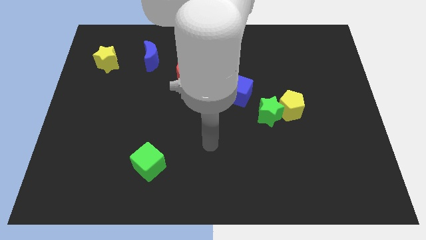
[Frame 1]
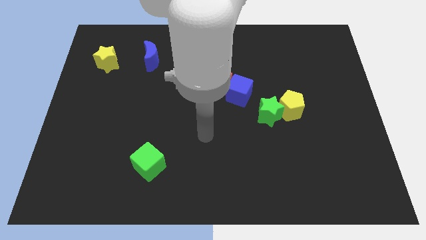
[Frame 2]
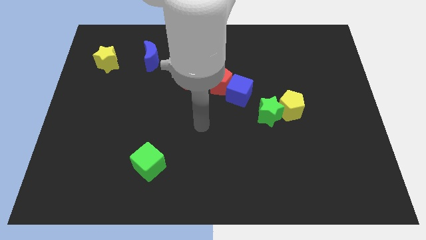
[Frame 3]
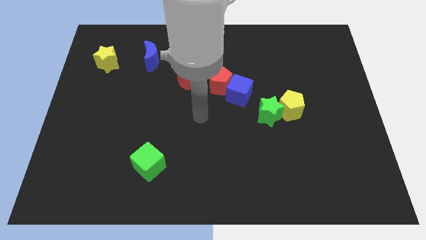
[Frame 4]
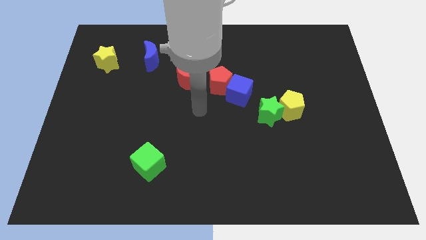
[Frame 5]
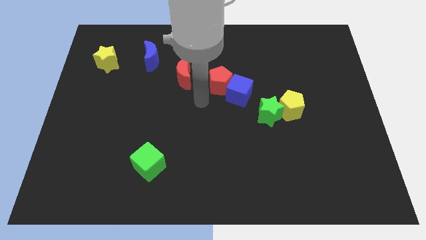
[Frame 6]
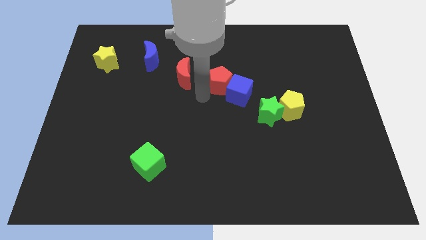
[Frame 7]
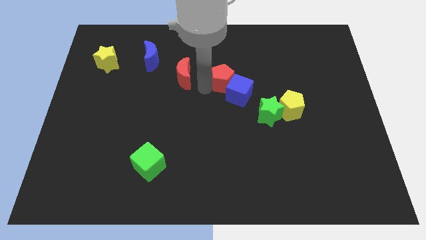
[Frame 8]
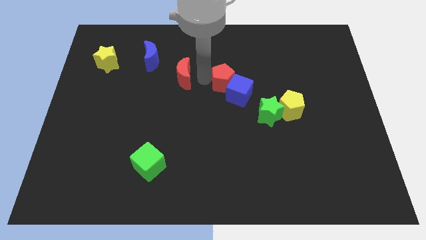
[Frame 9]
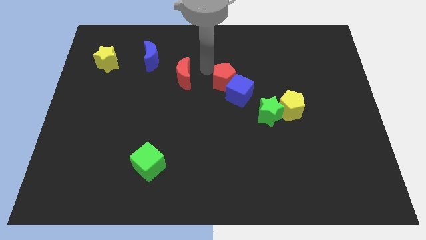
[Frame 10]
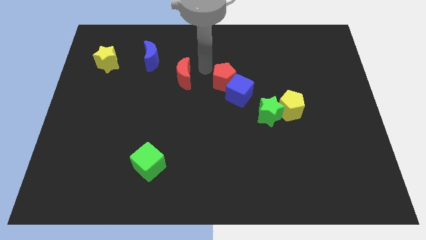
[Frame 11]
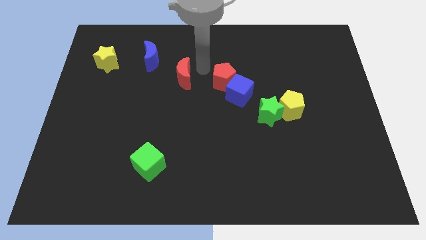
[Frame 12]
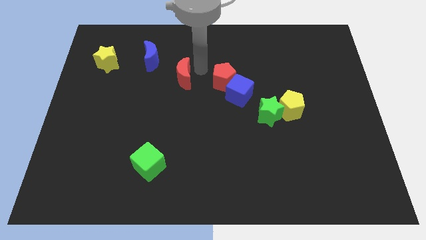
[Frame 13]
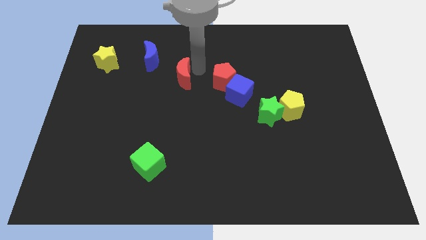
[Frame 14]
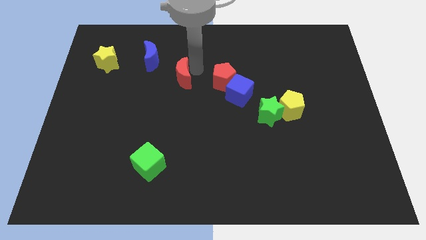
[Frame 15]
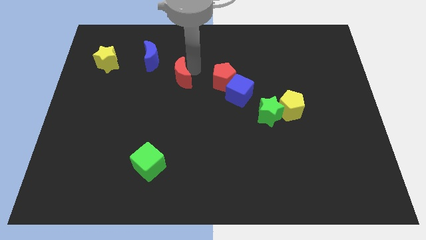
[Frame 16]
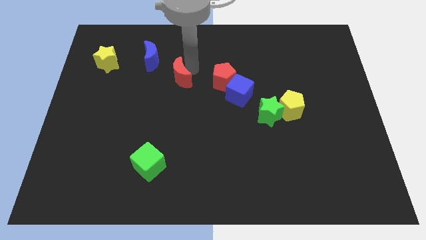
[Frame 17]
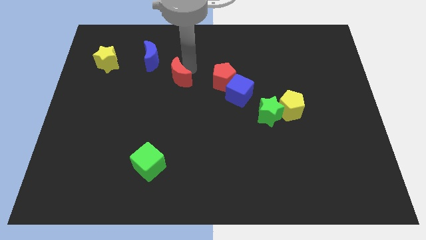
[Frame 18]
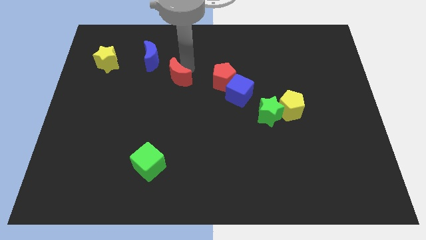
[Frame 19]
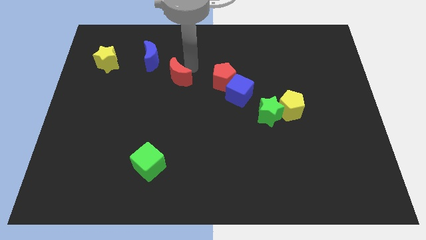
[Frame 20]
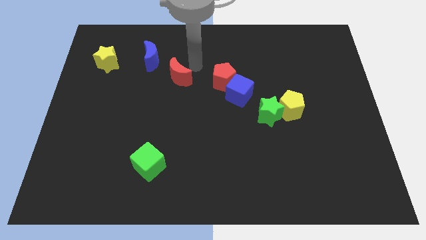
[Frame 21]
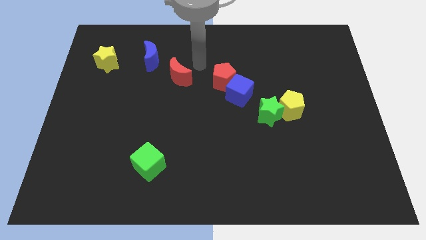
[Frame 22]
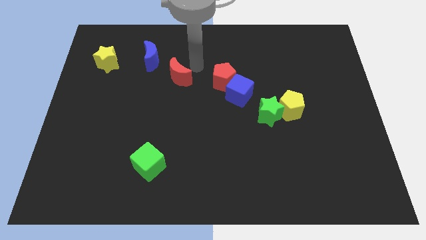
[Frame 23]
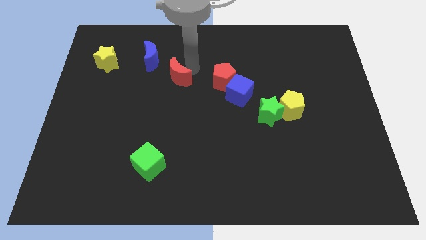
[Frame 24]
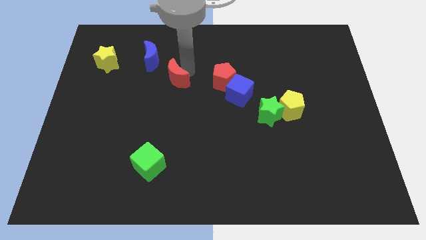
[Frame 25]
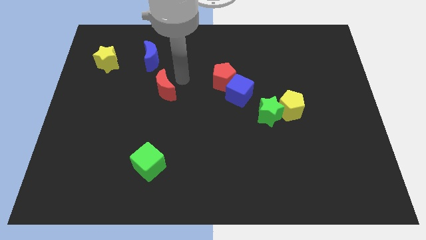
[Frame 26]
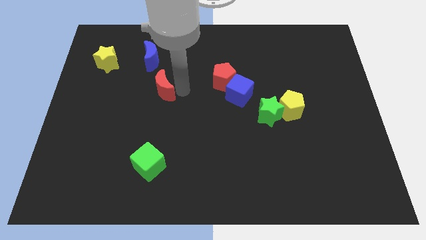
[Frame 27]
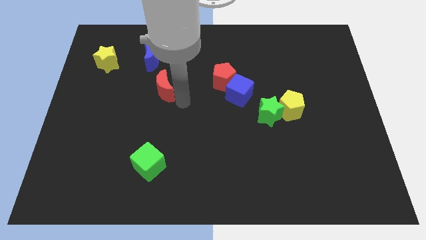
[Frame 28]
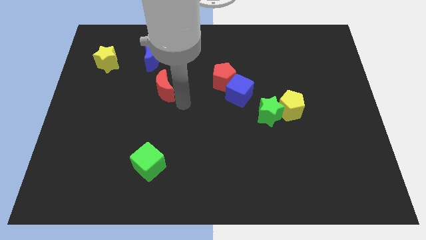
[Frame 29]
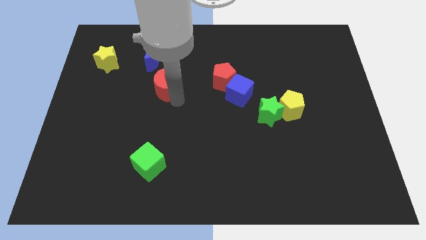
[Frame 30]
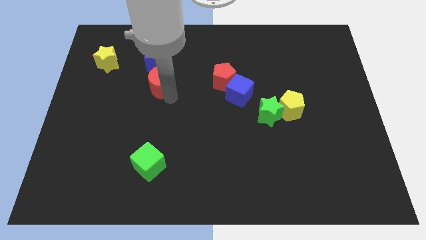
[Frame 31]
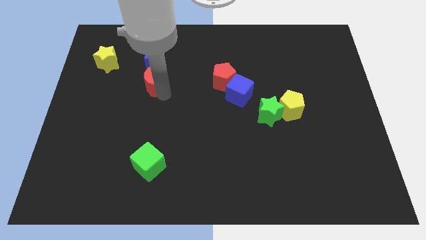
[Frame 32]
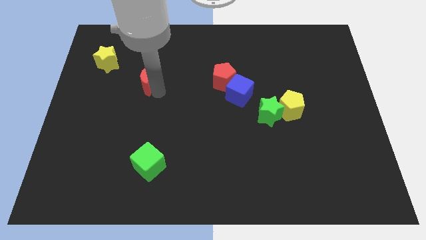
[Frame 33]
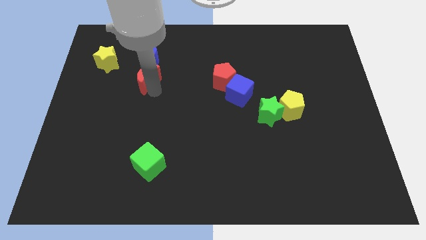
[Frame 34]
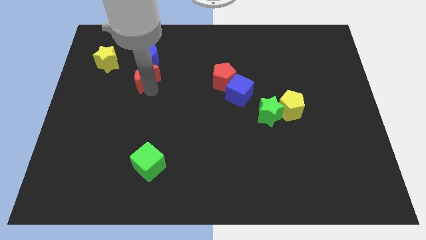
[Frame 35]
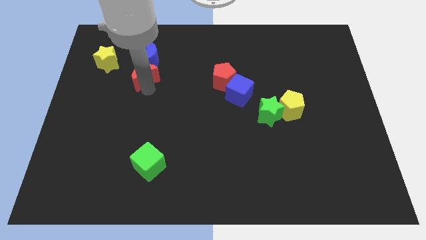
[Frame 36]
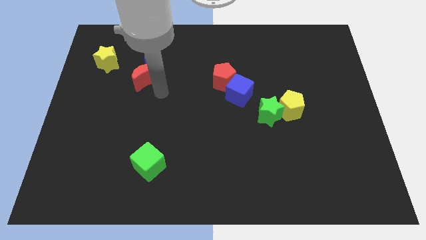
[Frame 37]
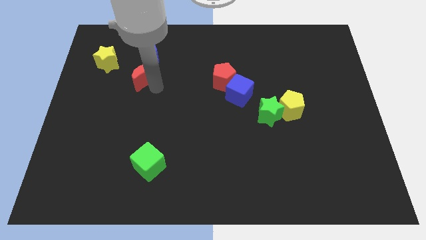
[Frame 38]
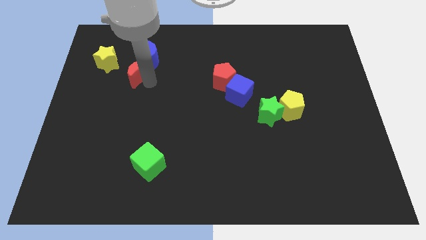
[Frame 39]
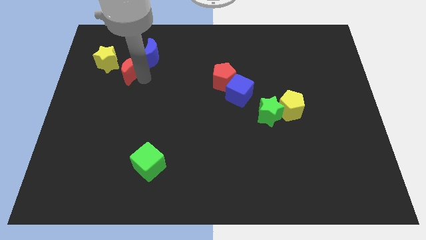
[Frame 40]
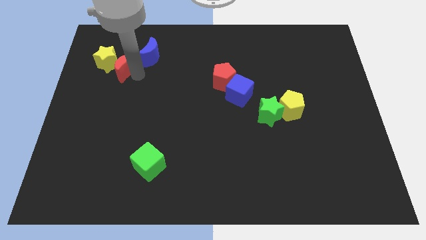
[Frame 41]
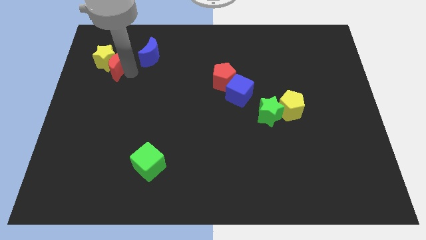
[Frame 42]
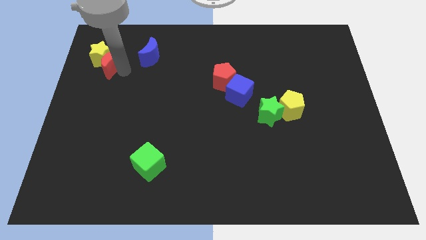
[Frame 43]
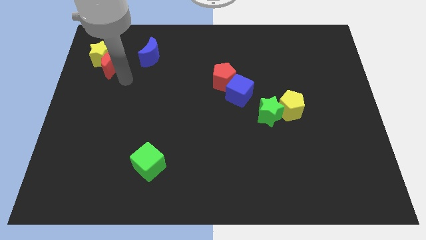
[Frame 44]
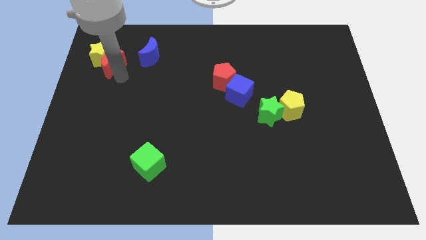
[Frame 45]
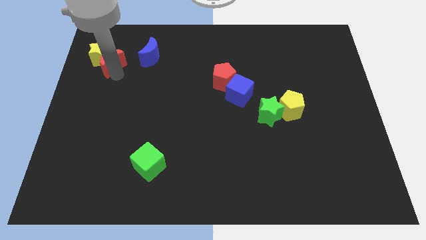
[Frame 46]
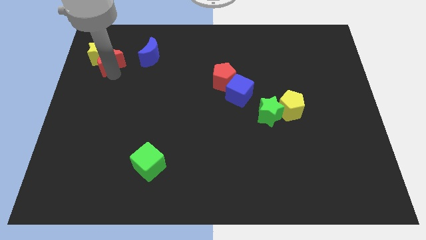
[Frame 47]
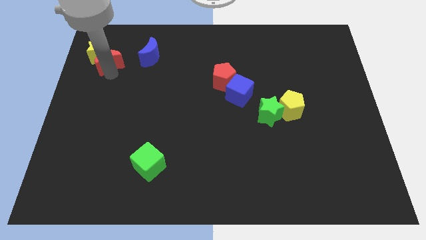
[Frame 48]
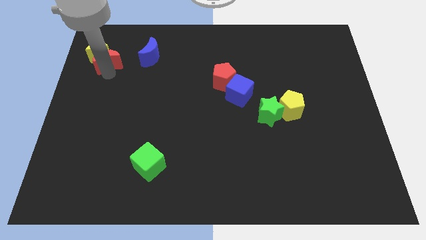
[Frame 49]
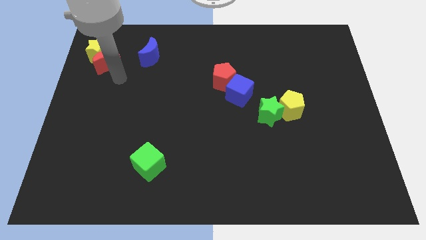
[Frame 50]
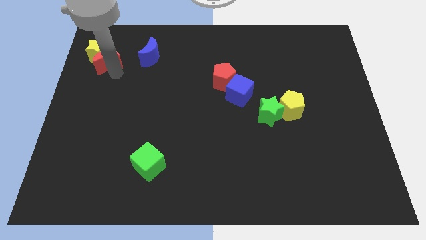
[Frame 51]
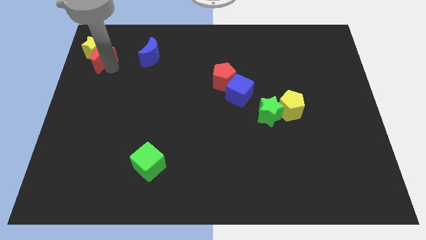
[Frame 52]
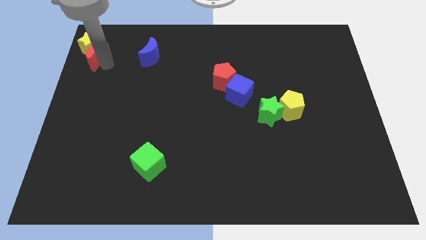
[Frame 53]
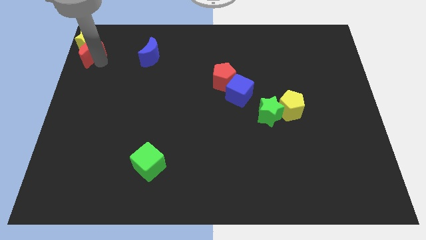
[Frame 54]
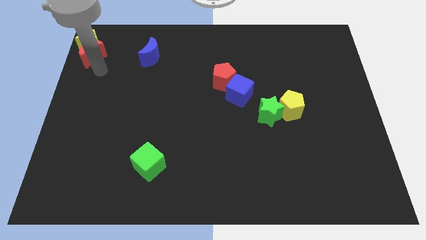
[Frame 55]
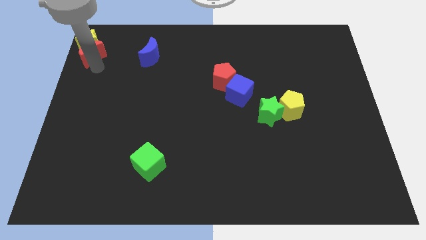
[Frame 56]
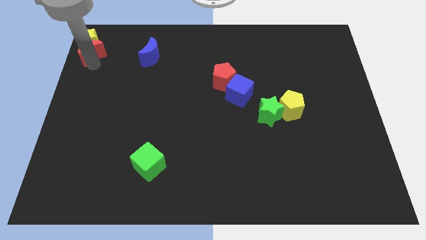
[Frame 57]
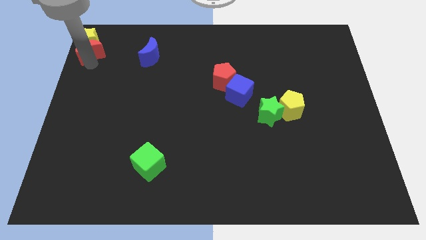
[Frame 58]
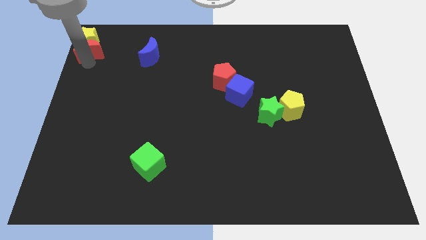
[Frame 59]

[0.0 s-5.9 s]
push the red moon to the top left of the board

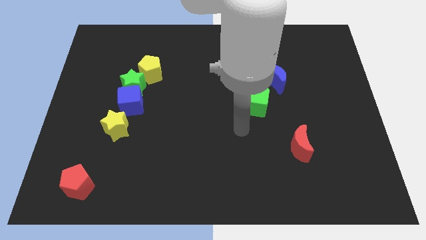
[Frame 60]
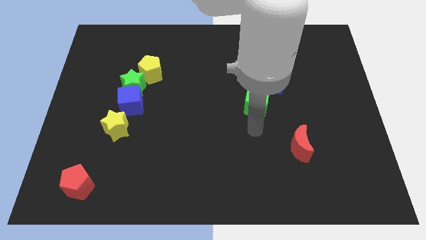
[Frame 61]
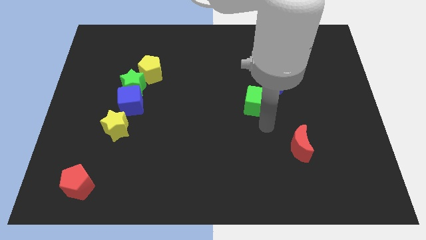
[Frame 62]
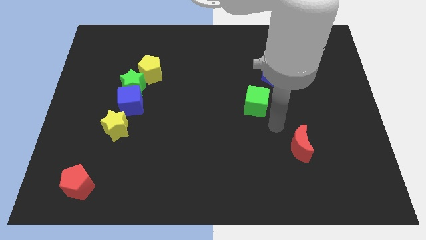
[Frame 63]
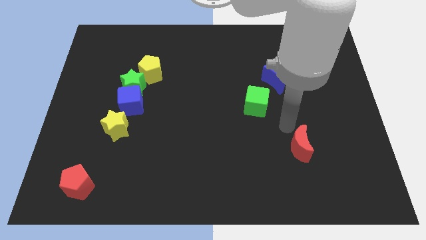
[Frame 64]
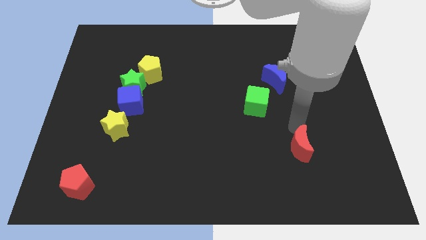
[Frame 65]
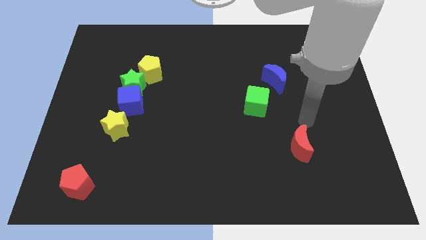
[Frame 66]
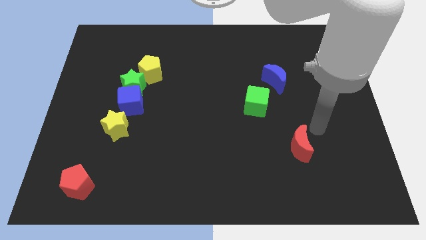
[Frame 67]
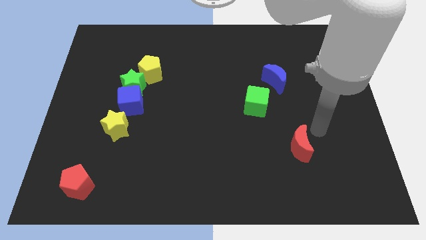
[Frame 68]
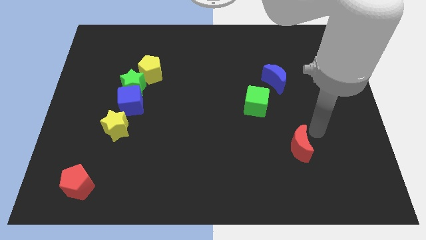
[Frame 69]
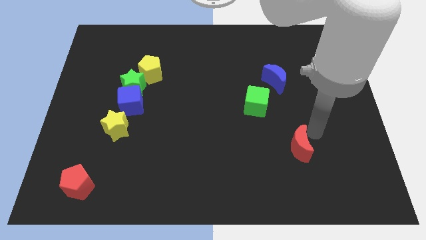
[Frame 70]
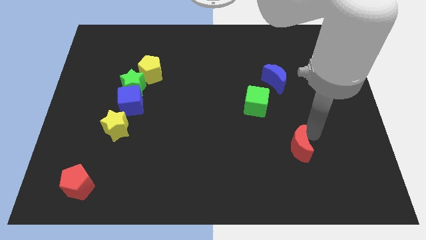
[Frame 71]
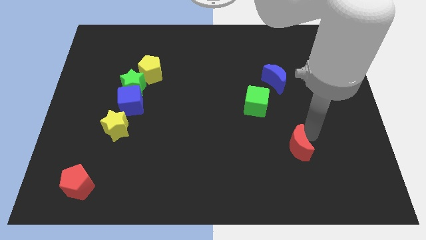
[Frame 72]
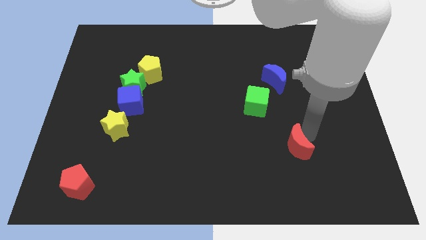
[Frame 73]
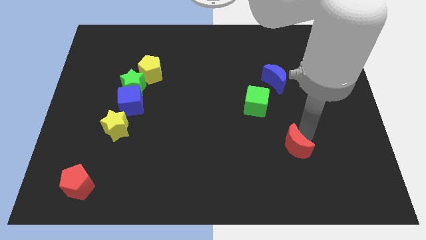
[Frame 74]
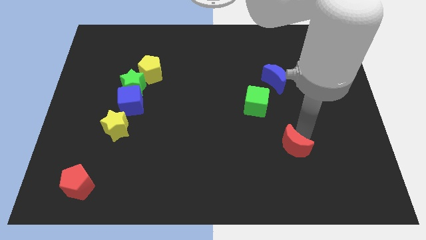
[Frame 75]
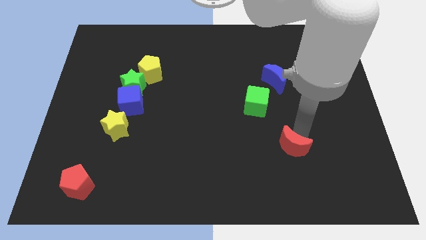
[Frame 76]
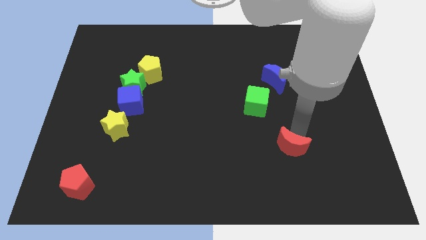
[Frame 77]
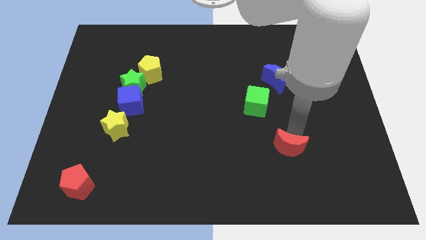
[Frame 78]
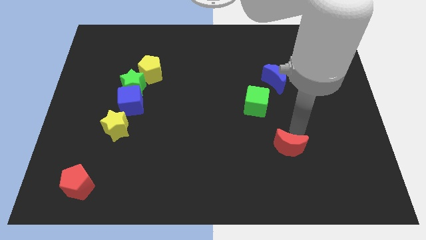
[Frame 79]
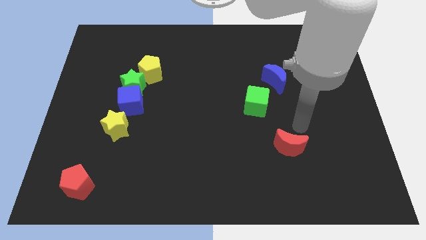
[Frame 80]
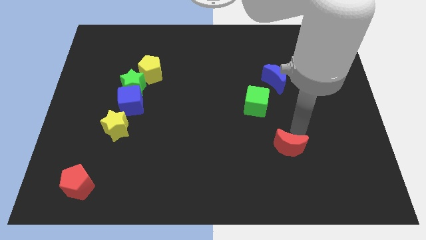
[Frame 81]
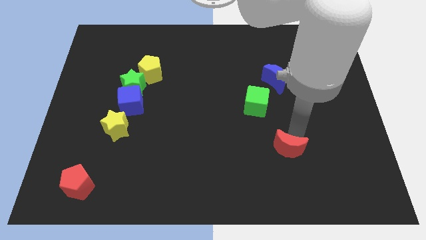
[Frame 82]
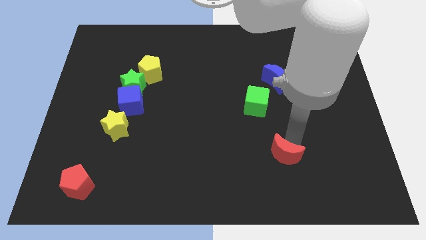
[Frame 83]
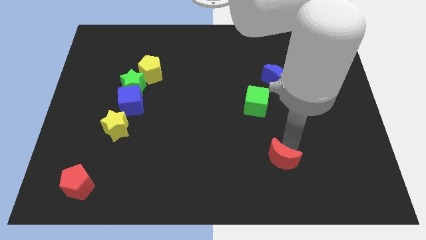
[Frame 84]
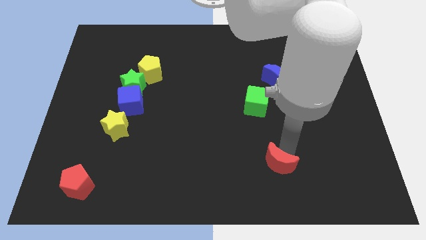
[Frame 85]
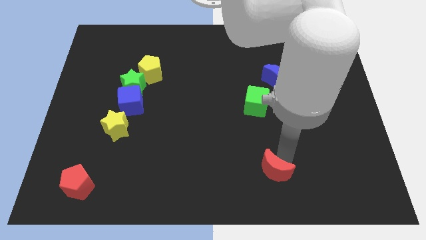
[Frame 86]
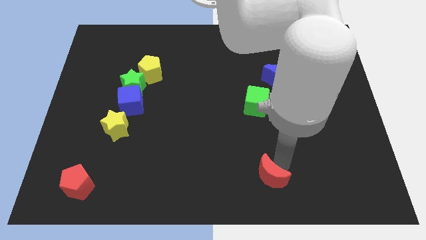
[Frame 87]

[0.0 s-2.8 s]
push the red moon to the bottom side
